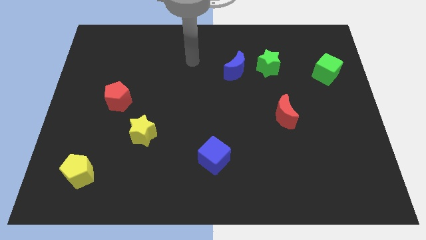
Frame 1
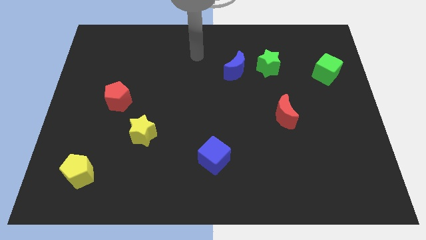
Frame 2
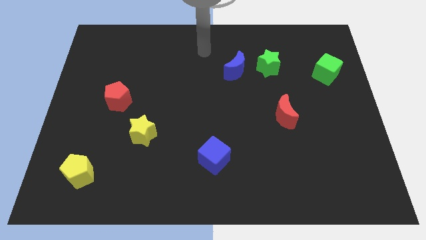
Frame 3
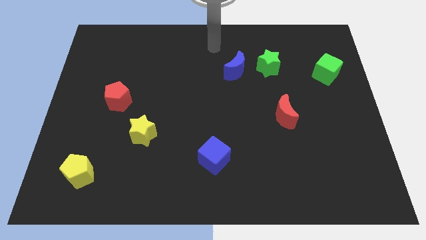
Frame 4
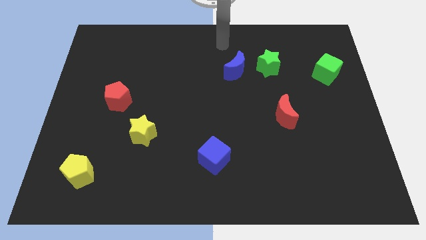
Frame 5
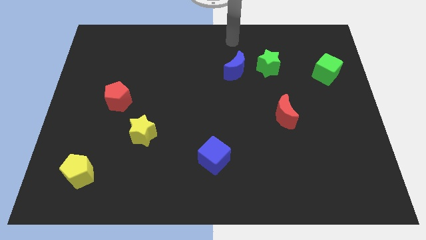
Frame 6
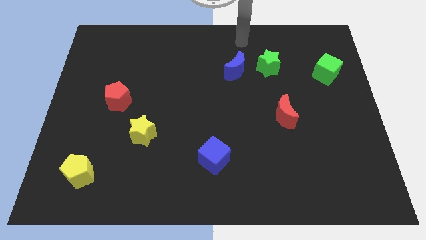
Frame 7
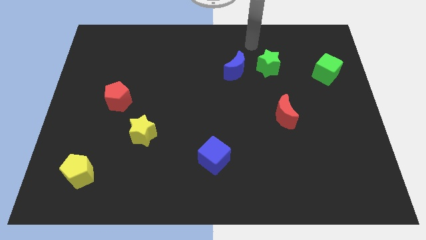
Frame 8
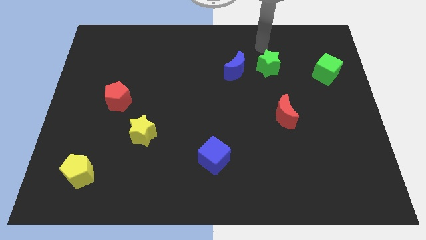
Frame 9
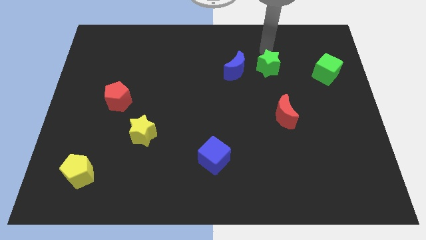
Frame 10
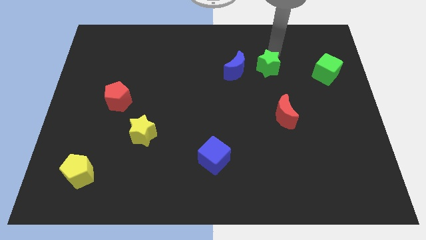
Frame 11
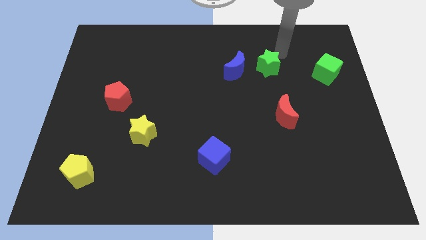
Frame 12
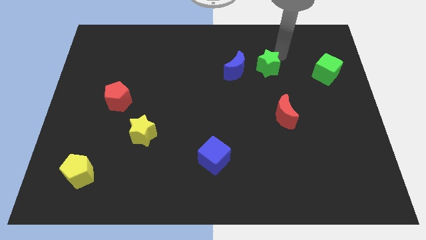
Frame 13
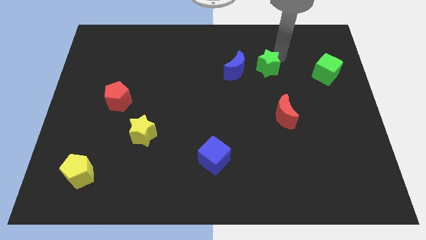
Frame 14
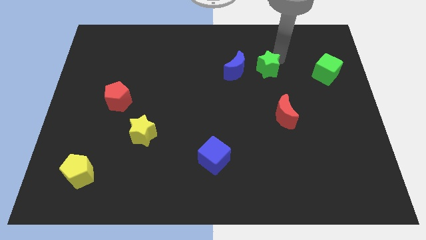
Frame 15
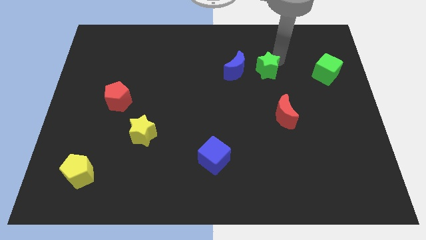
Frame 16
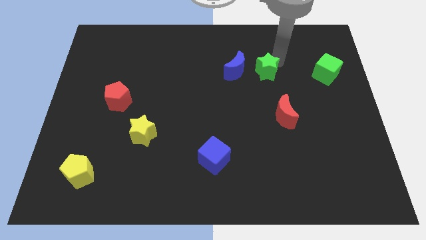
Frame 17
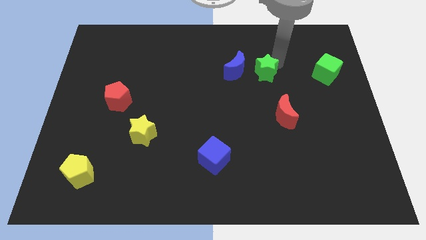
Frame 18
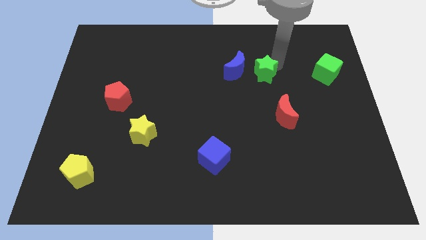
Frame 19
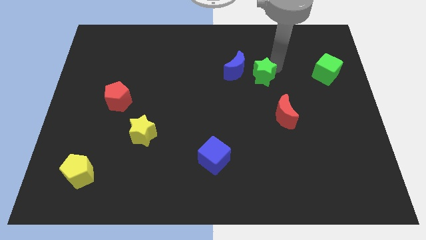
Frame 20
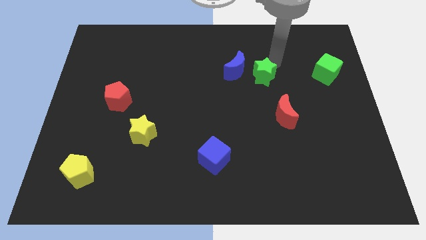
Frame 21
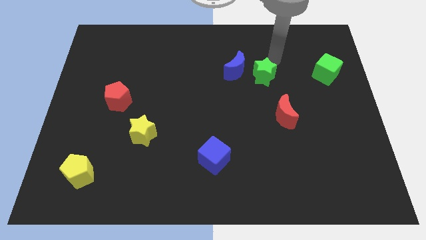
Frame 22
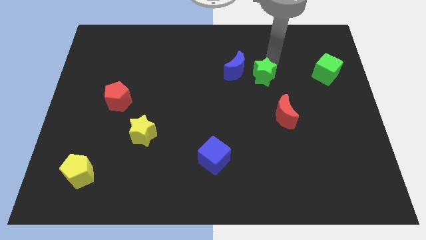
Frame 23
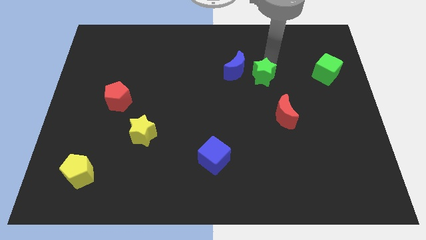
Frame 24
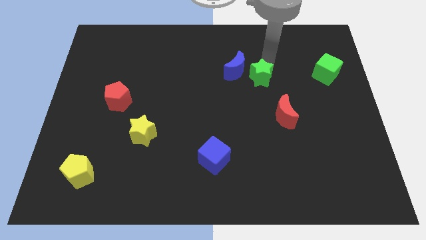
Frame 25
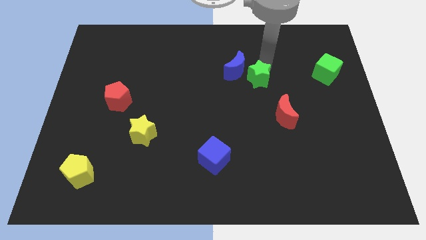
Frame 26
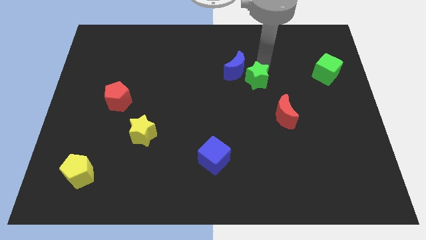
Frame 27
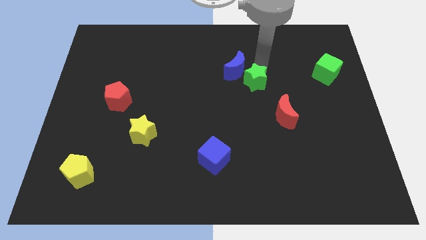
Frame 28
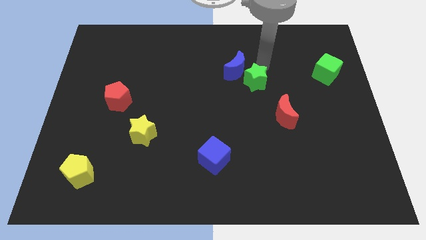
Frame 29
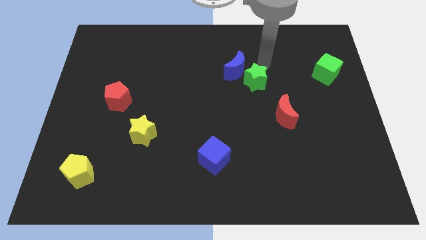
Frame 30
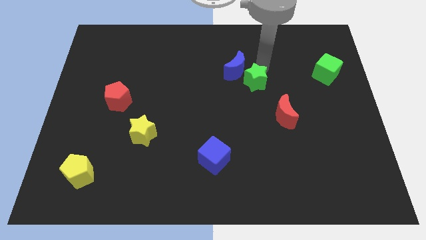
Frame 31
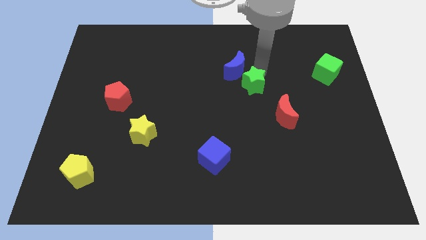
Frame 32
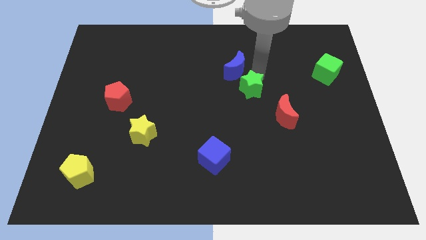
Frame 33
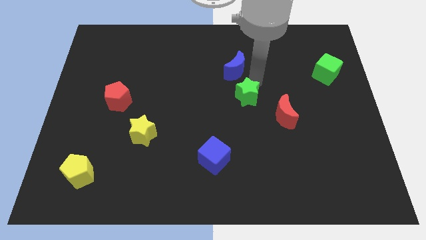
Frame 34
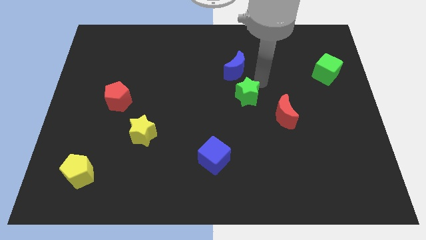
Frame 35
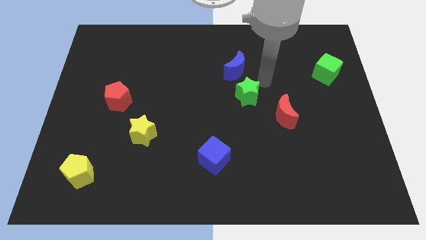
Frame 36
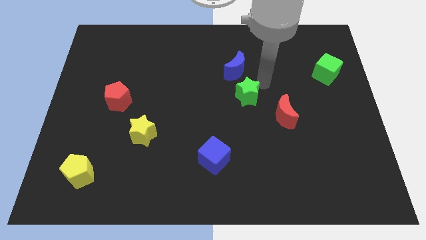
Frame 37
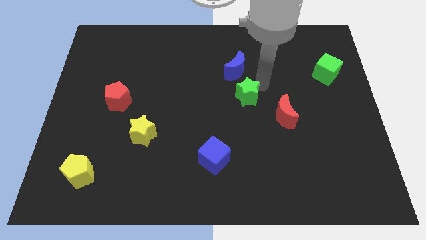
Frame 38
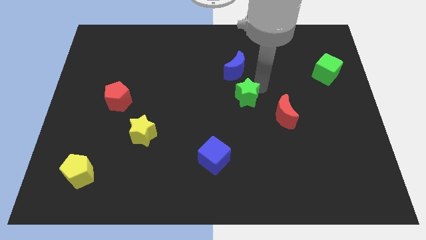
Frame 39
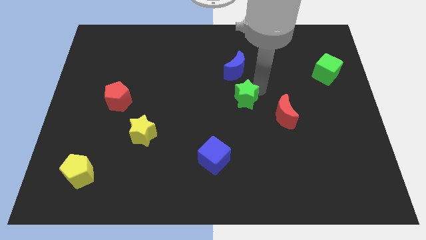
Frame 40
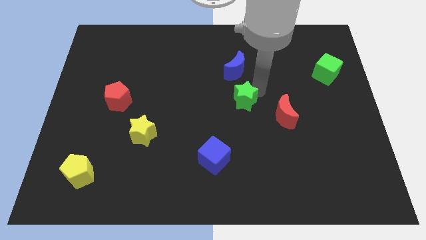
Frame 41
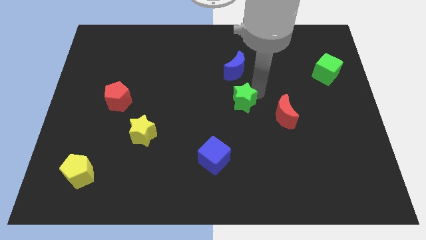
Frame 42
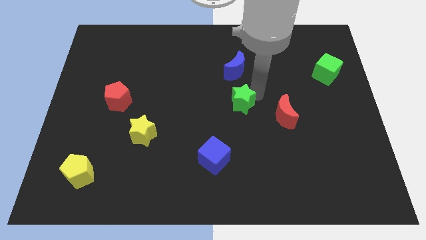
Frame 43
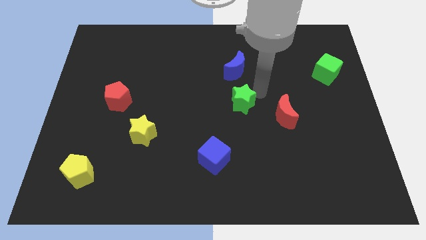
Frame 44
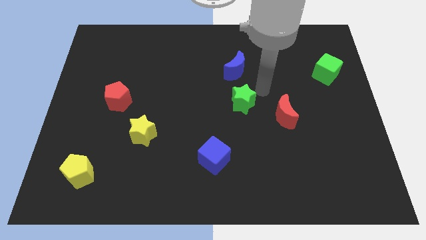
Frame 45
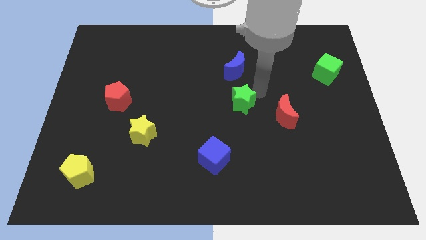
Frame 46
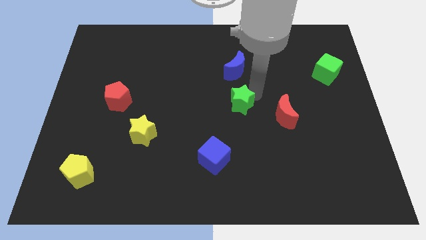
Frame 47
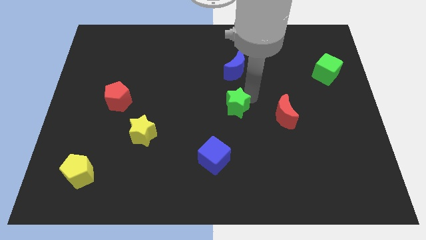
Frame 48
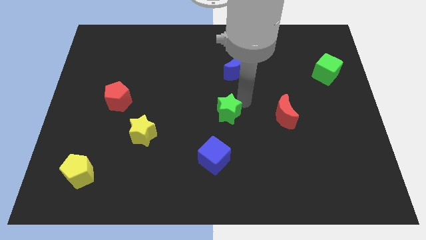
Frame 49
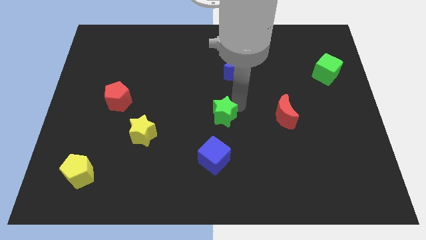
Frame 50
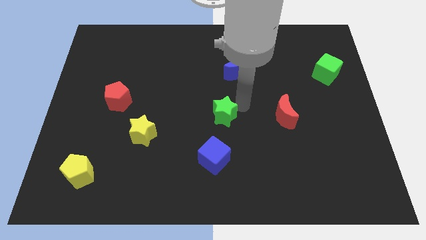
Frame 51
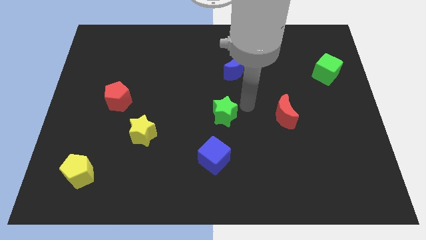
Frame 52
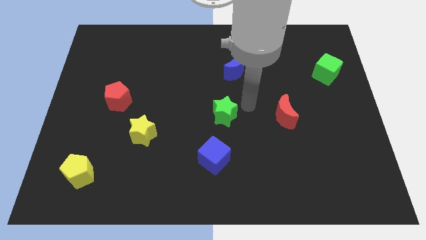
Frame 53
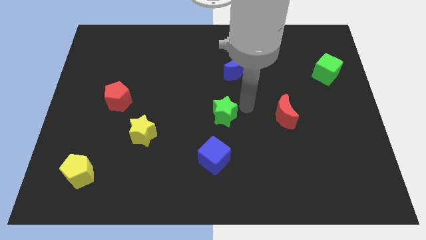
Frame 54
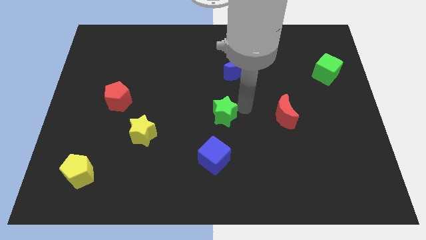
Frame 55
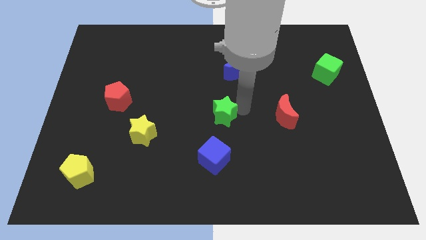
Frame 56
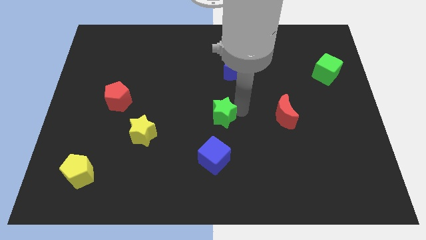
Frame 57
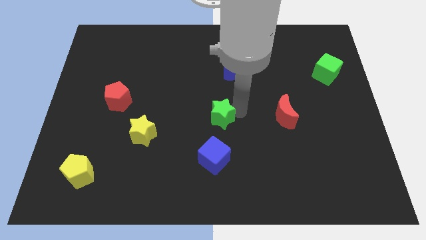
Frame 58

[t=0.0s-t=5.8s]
move the green star down and then left

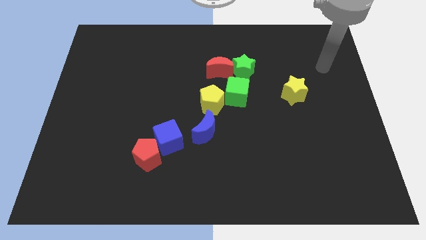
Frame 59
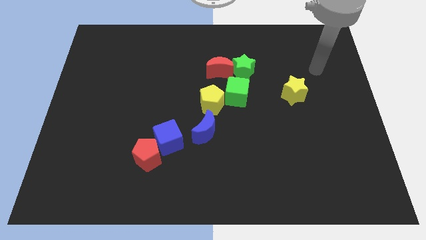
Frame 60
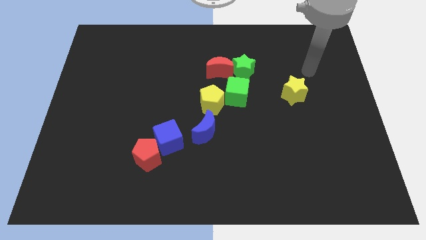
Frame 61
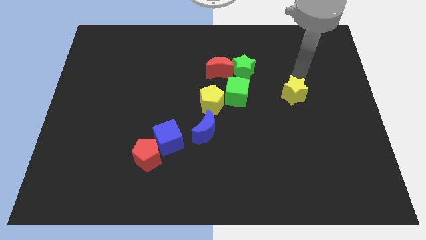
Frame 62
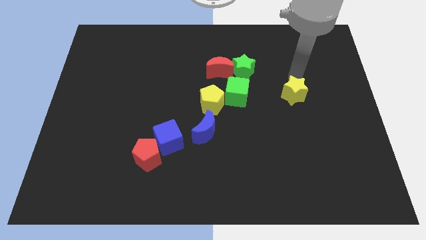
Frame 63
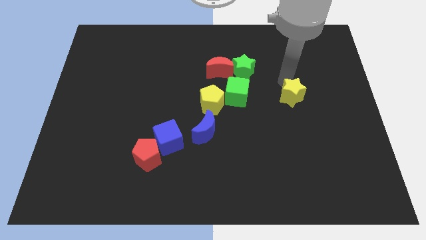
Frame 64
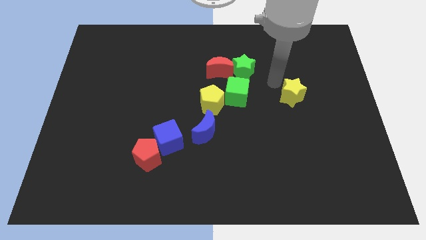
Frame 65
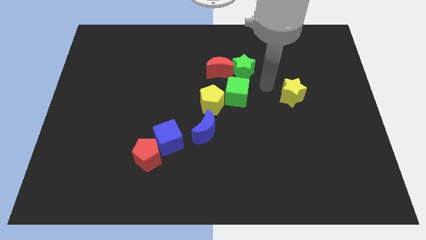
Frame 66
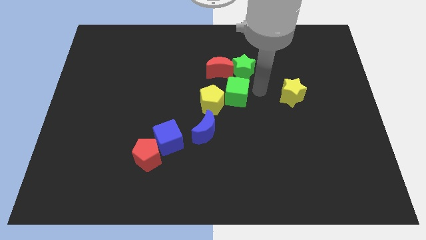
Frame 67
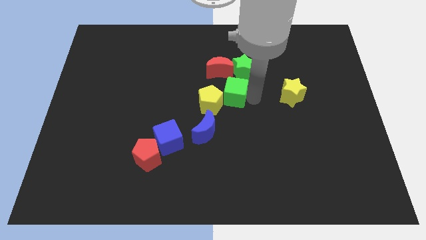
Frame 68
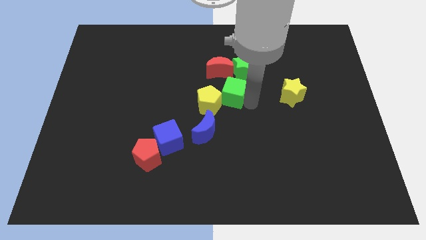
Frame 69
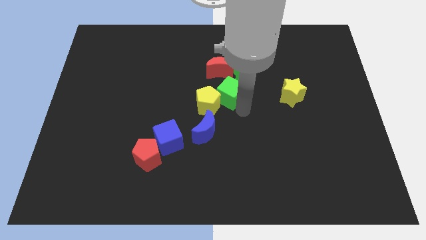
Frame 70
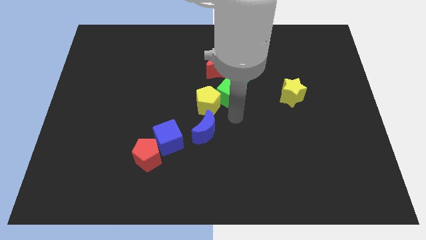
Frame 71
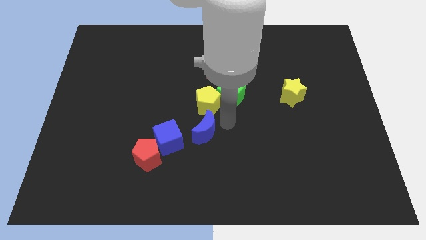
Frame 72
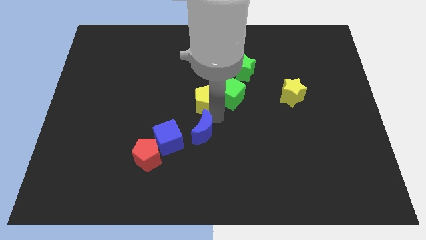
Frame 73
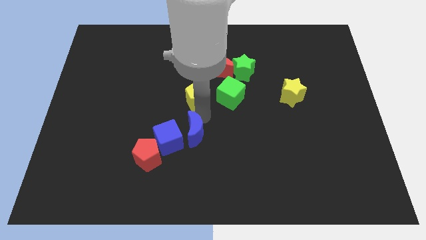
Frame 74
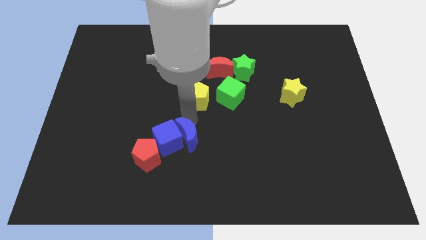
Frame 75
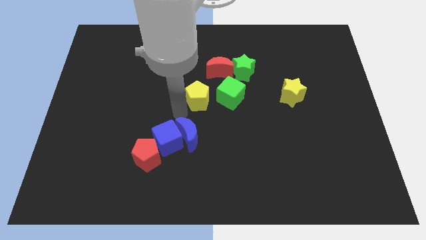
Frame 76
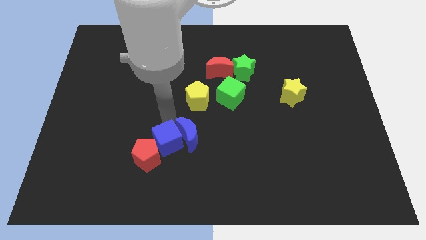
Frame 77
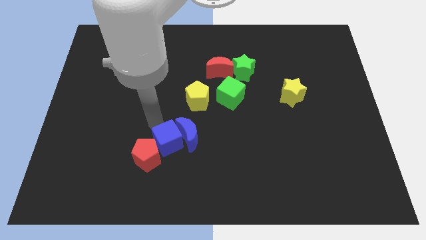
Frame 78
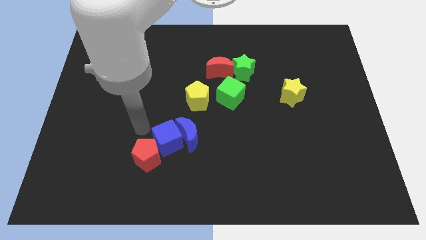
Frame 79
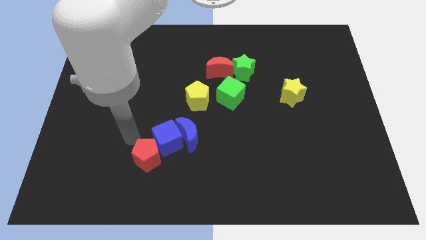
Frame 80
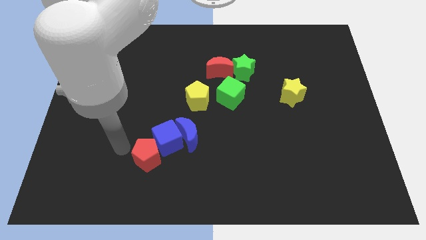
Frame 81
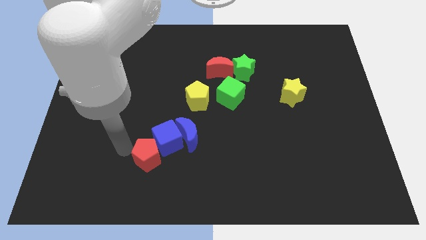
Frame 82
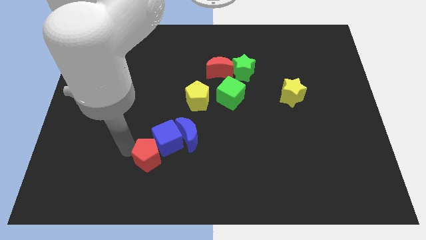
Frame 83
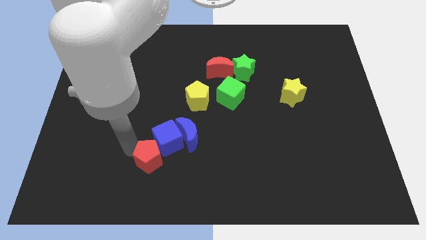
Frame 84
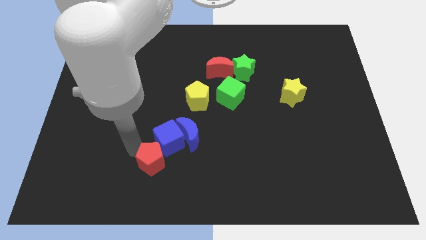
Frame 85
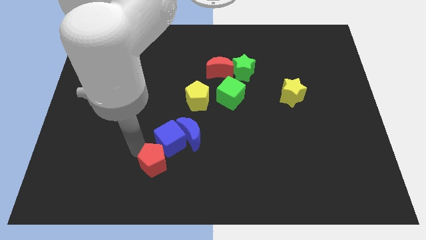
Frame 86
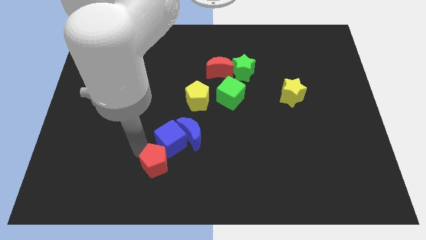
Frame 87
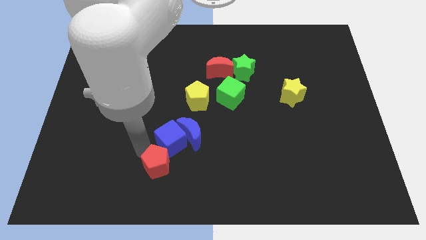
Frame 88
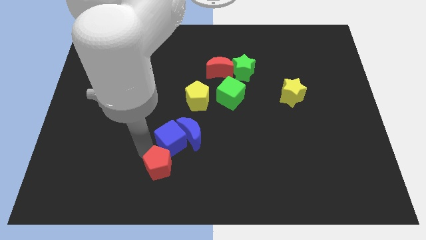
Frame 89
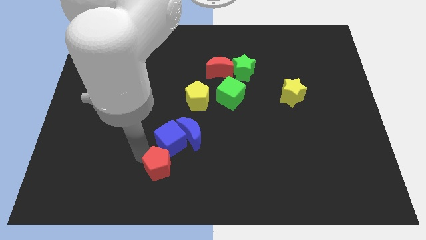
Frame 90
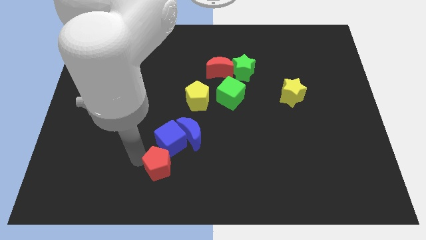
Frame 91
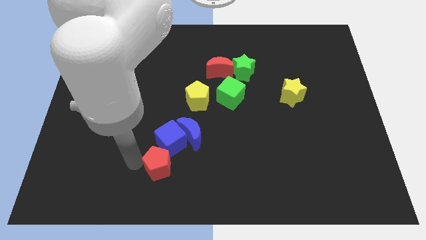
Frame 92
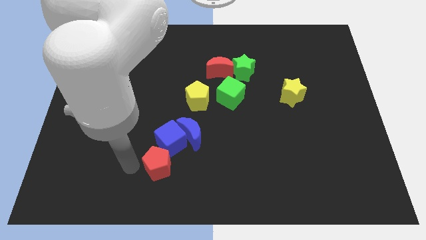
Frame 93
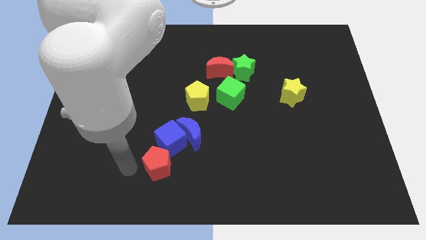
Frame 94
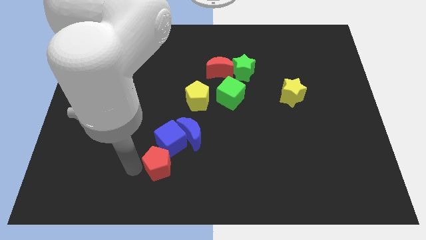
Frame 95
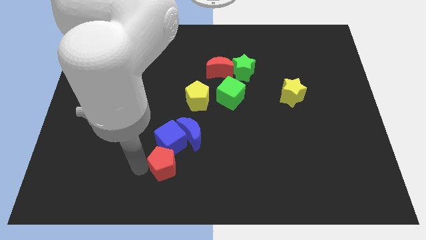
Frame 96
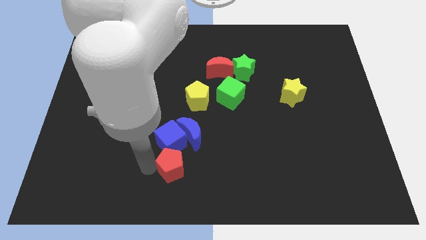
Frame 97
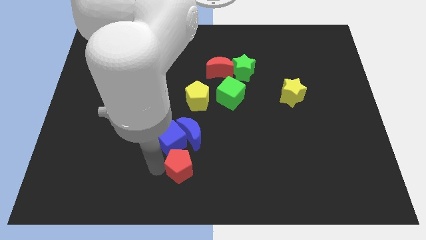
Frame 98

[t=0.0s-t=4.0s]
push the red pentagon somewhat to the right
